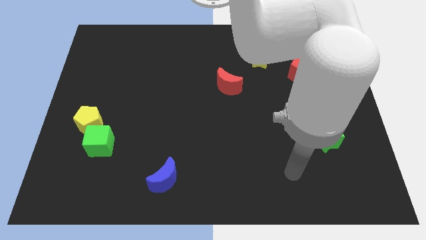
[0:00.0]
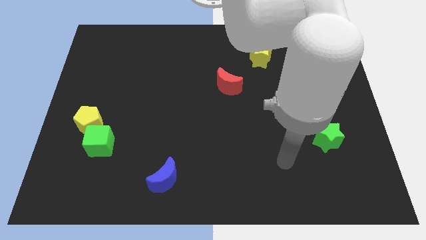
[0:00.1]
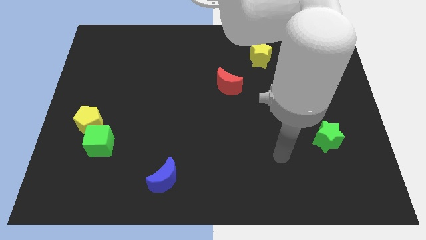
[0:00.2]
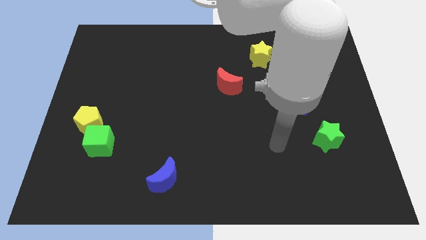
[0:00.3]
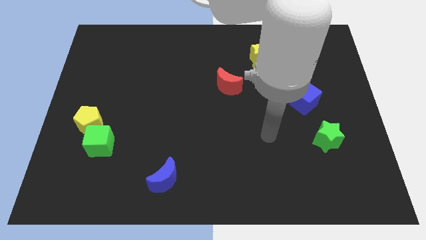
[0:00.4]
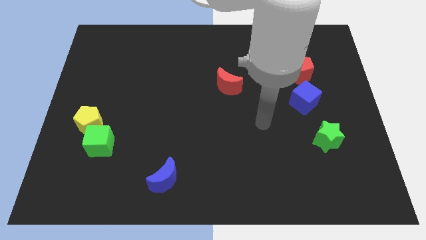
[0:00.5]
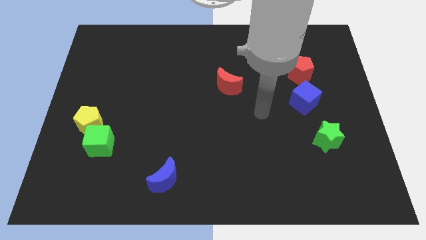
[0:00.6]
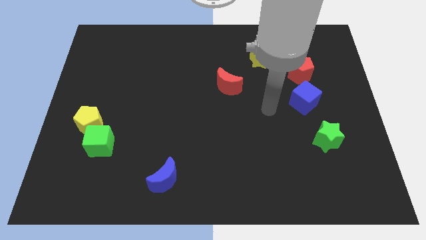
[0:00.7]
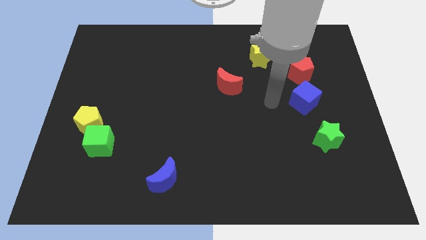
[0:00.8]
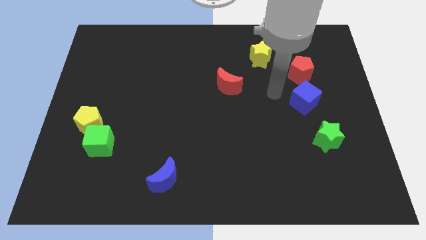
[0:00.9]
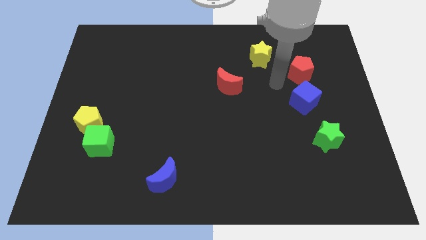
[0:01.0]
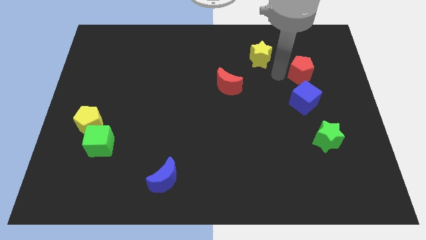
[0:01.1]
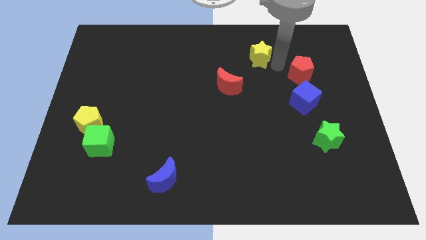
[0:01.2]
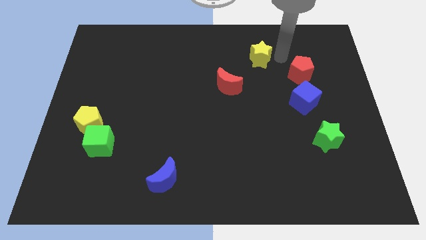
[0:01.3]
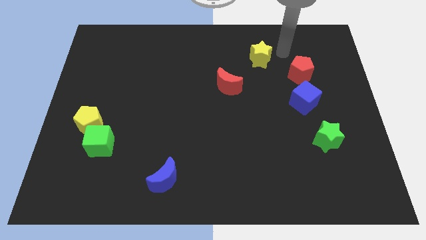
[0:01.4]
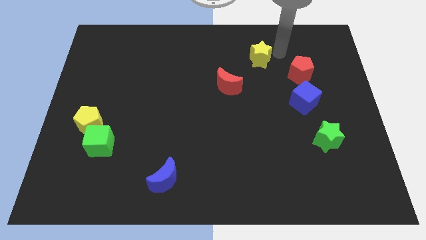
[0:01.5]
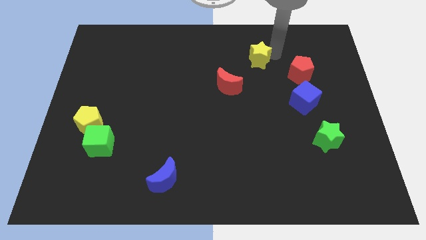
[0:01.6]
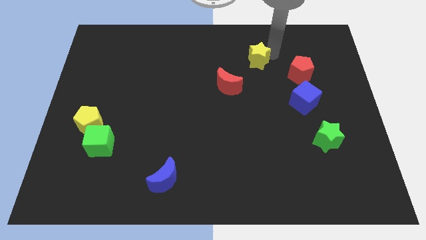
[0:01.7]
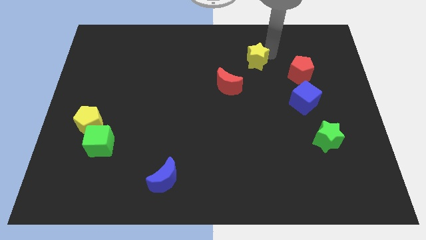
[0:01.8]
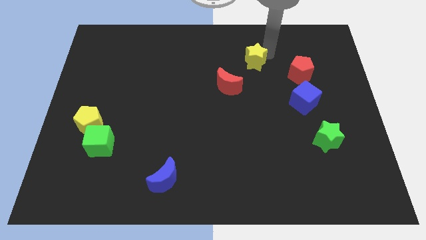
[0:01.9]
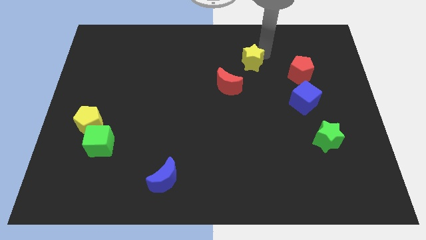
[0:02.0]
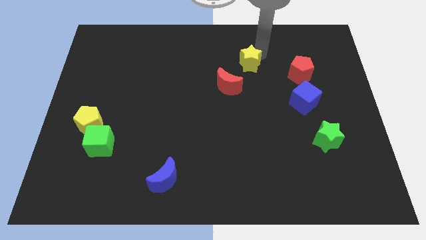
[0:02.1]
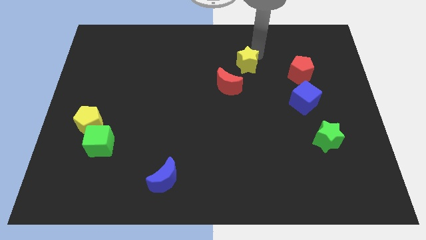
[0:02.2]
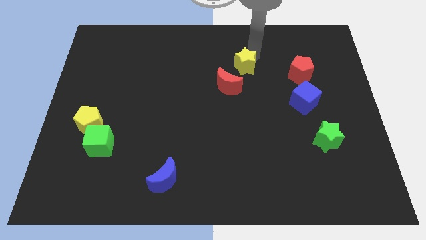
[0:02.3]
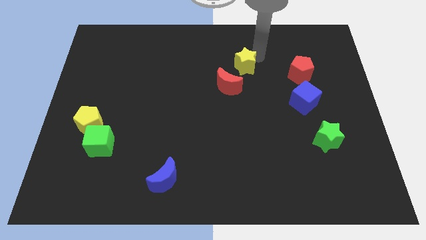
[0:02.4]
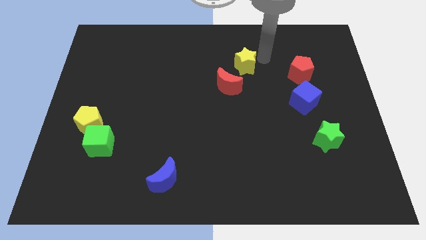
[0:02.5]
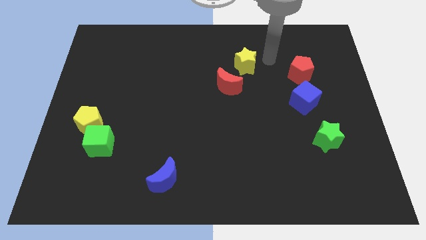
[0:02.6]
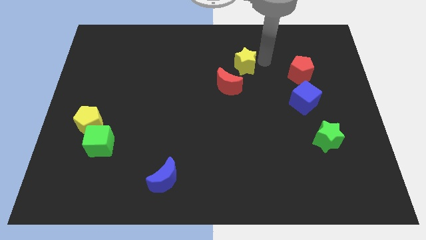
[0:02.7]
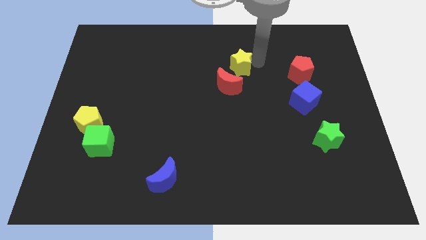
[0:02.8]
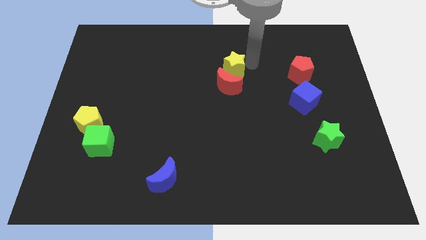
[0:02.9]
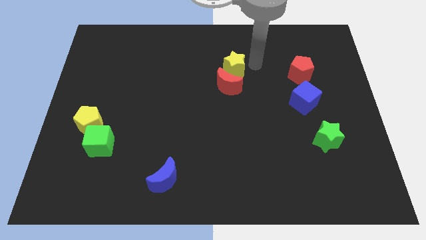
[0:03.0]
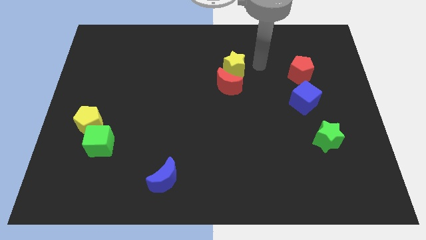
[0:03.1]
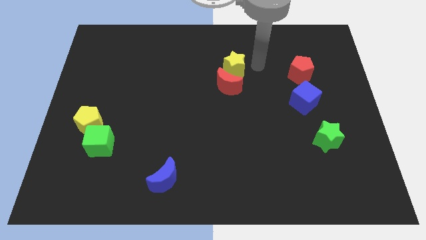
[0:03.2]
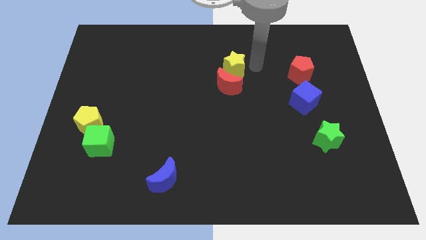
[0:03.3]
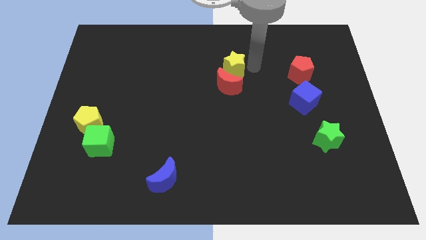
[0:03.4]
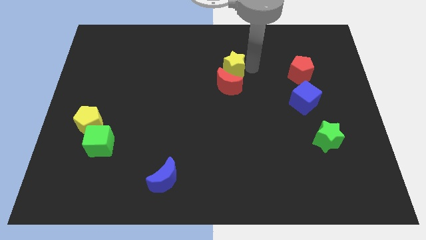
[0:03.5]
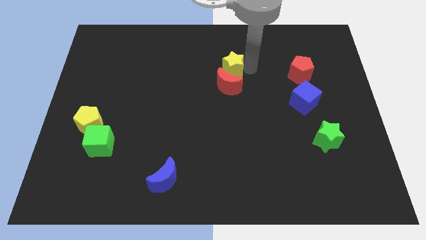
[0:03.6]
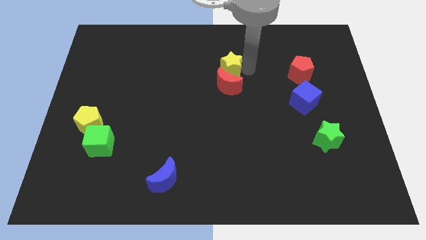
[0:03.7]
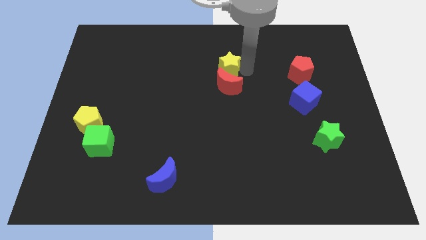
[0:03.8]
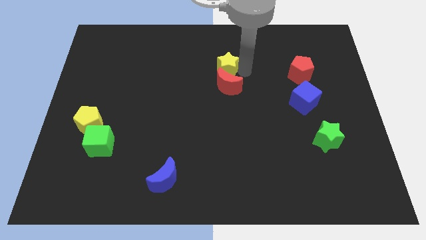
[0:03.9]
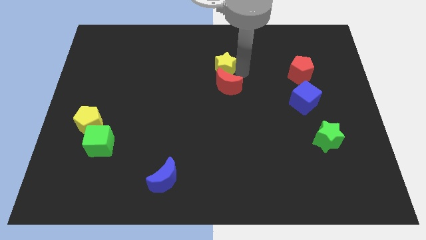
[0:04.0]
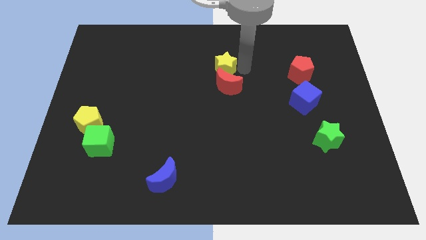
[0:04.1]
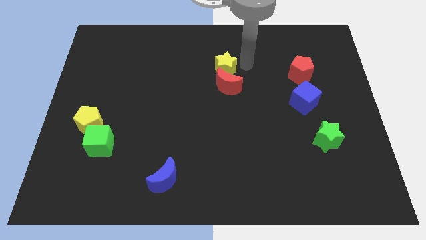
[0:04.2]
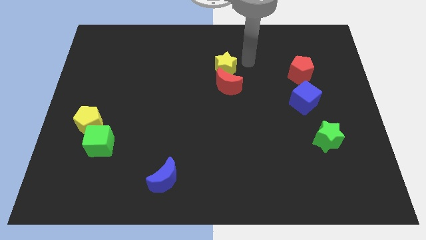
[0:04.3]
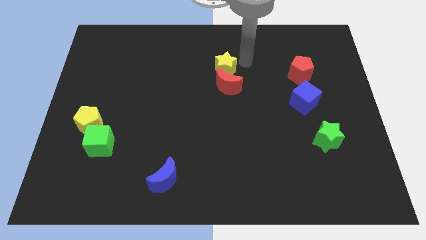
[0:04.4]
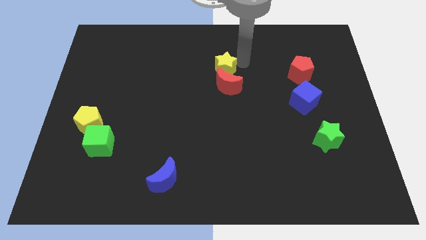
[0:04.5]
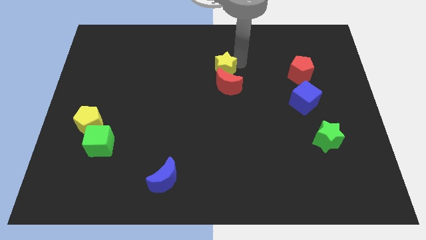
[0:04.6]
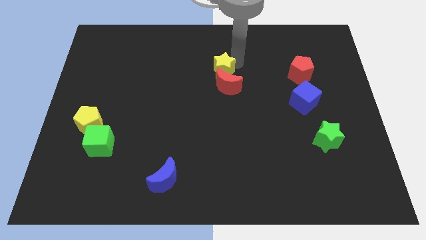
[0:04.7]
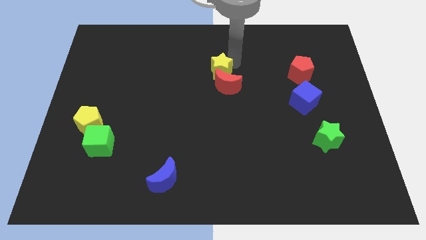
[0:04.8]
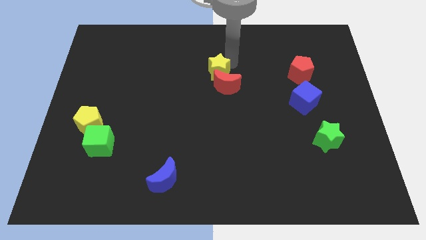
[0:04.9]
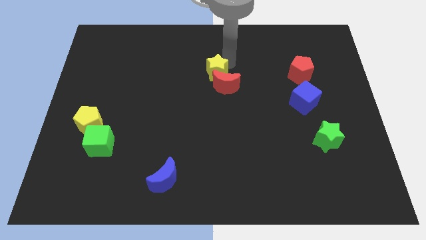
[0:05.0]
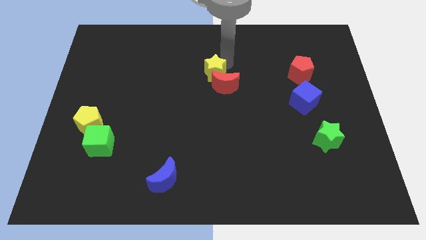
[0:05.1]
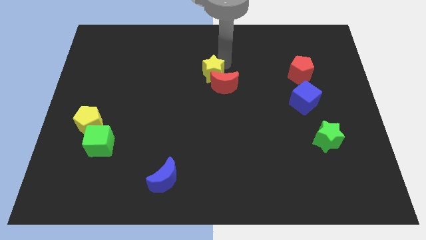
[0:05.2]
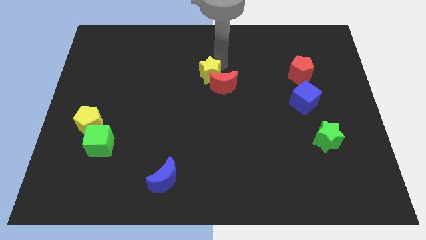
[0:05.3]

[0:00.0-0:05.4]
push the yellow star left of the red moon
